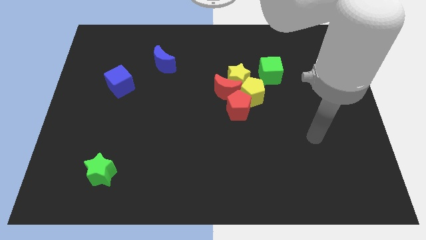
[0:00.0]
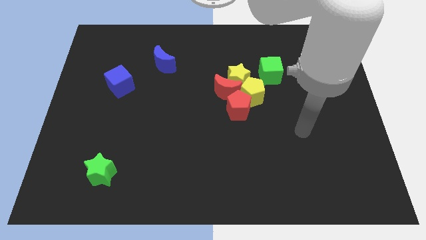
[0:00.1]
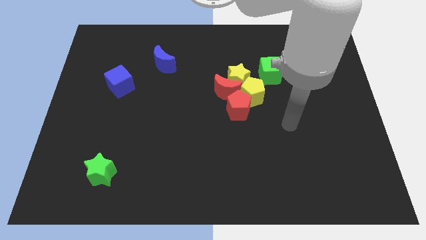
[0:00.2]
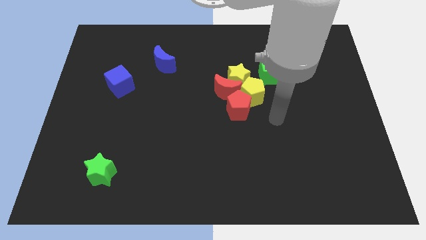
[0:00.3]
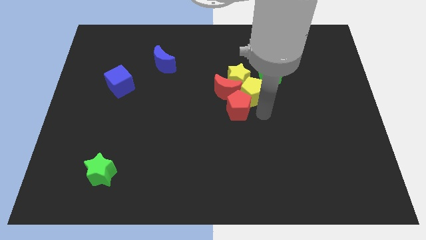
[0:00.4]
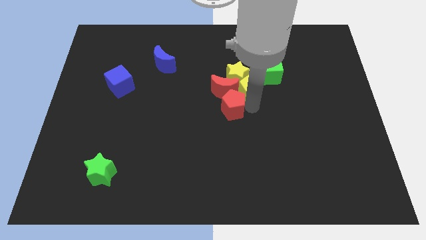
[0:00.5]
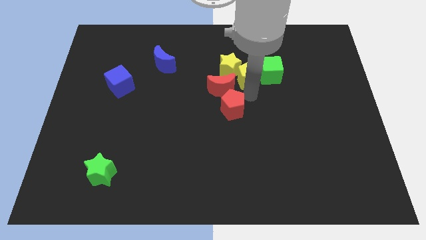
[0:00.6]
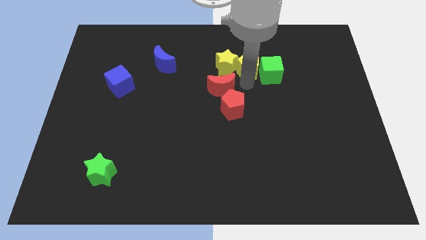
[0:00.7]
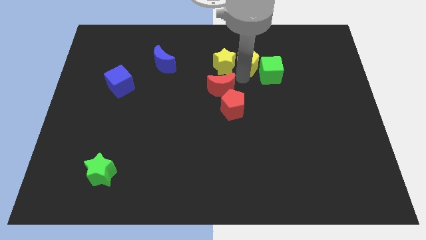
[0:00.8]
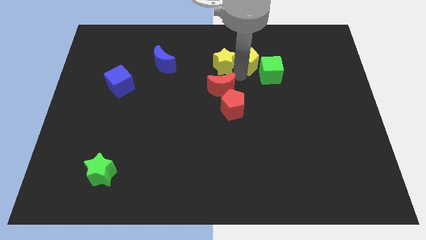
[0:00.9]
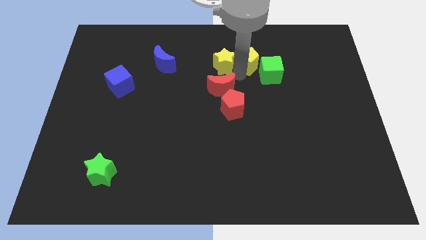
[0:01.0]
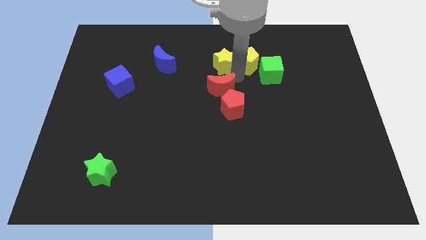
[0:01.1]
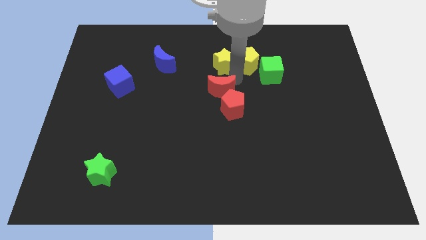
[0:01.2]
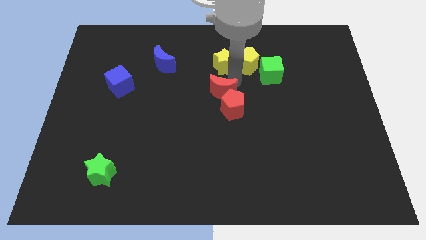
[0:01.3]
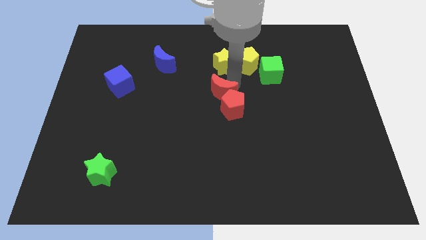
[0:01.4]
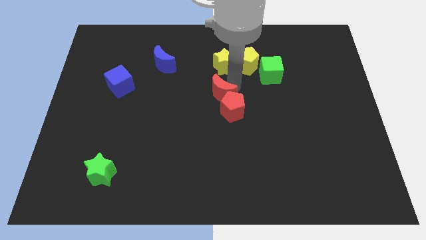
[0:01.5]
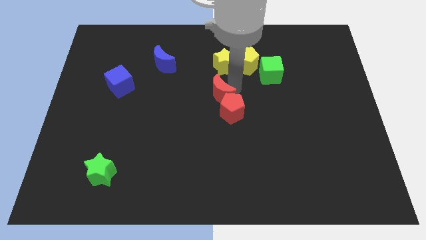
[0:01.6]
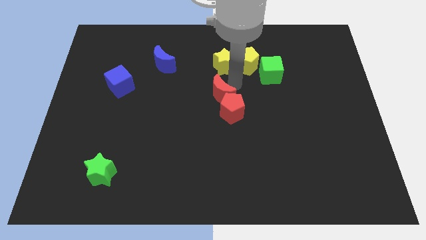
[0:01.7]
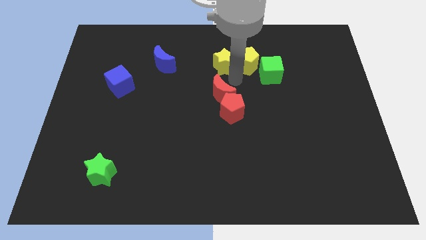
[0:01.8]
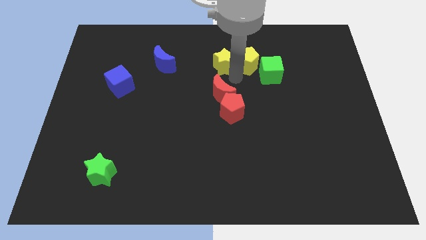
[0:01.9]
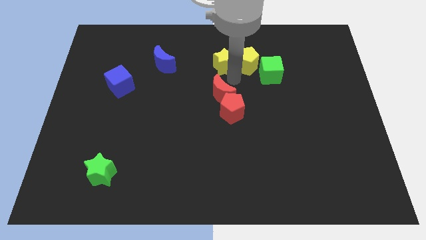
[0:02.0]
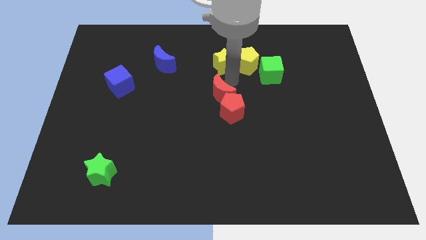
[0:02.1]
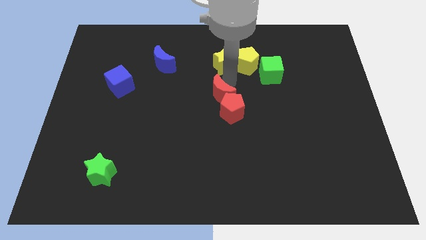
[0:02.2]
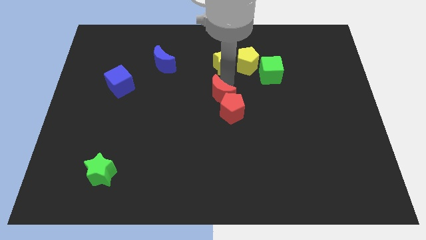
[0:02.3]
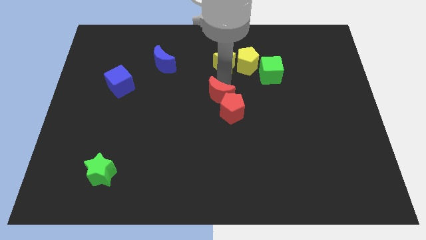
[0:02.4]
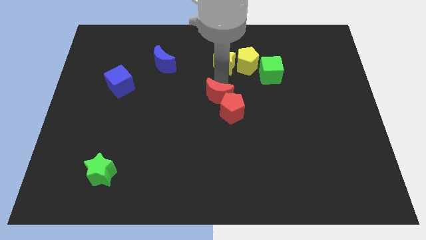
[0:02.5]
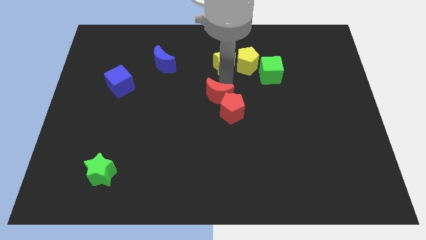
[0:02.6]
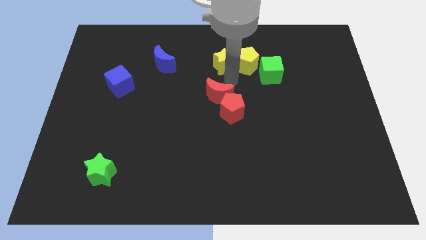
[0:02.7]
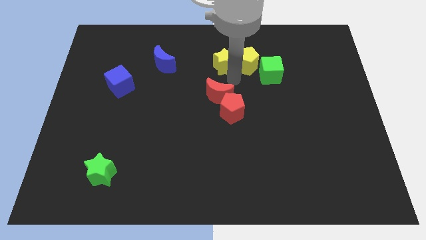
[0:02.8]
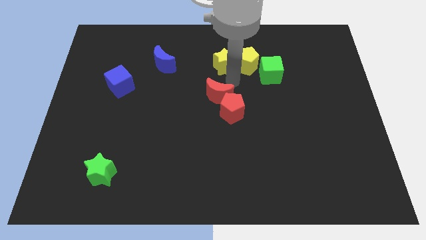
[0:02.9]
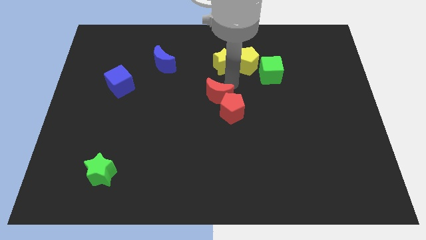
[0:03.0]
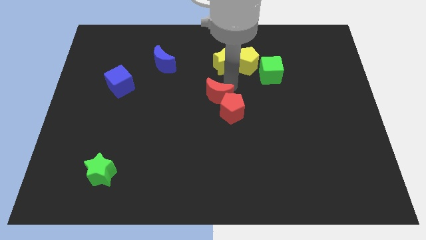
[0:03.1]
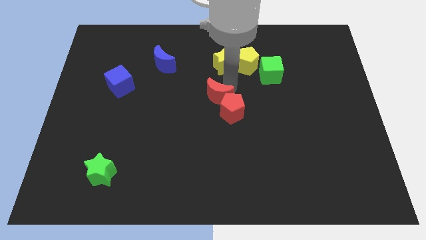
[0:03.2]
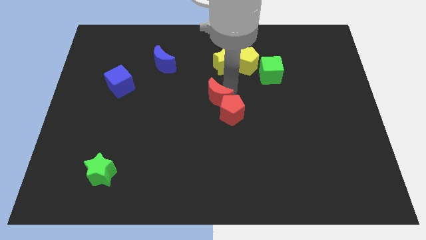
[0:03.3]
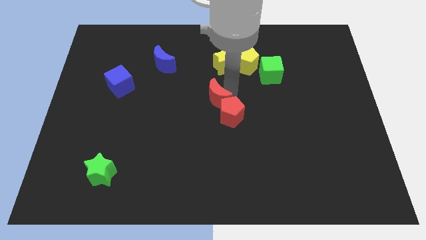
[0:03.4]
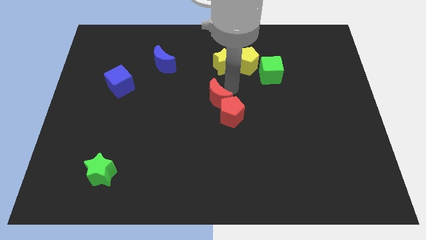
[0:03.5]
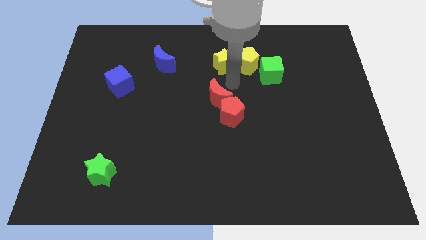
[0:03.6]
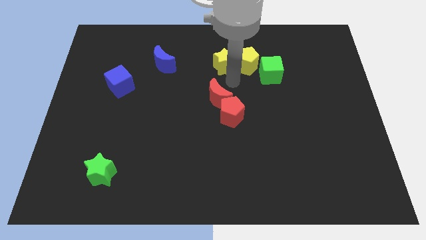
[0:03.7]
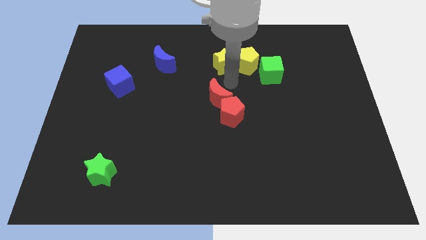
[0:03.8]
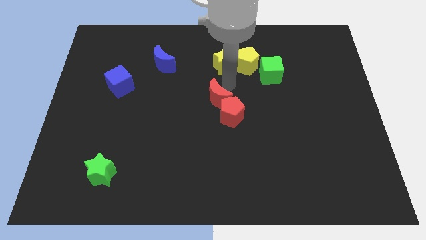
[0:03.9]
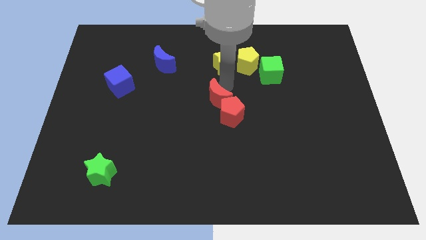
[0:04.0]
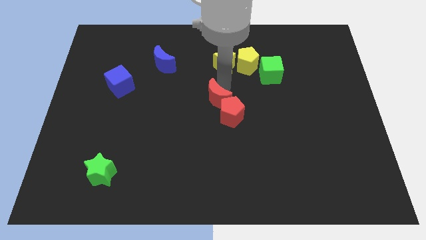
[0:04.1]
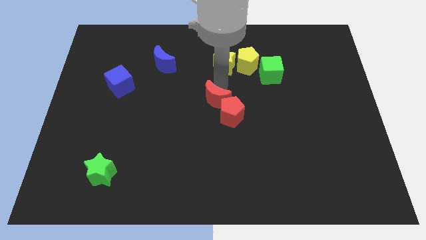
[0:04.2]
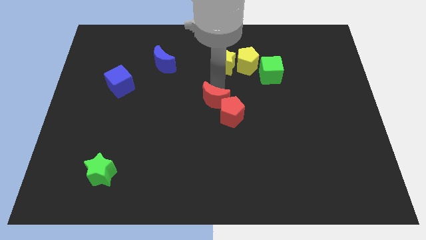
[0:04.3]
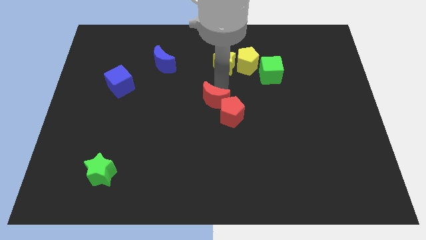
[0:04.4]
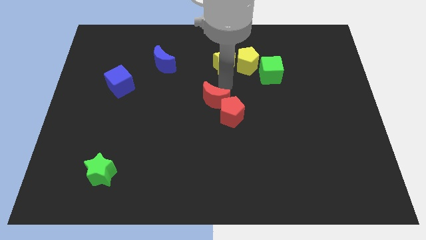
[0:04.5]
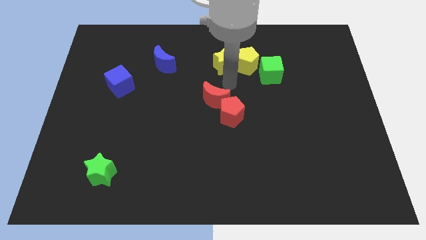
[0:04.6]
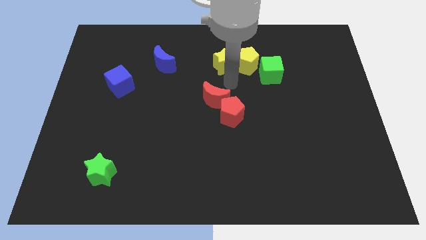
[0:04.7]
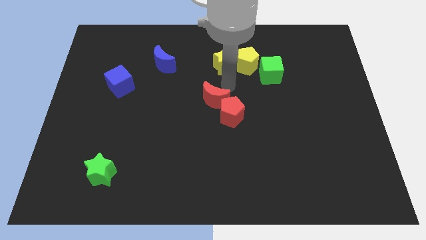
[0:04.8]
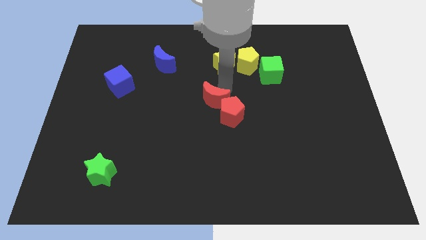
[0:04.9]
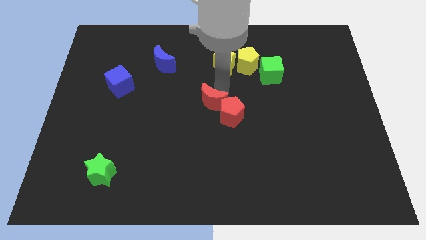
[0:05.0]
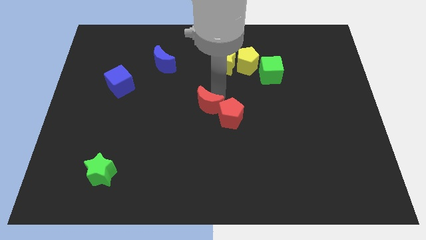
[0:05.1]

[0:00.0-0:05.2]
move the red moon away from the yellow star, red pentagon, and yellow pentagon

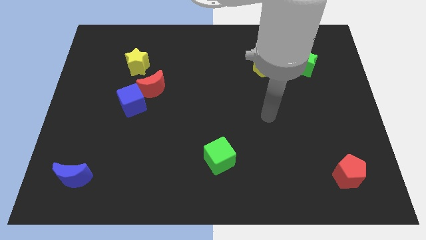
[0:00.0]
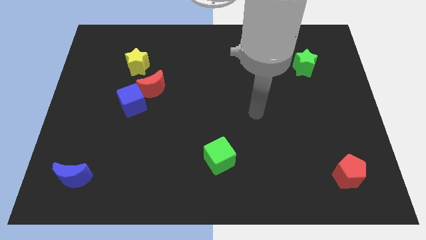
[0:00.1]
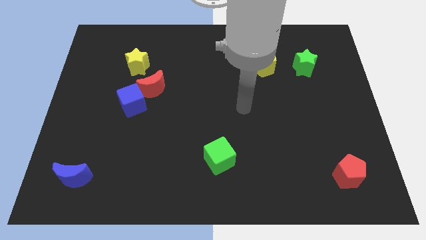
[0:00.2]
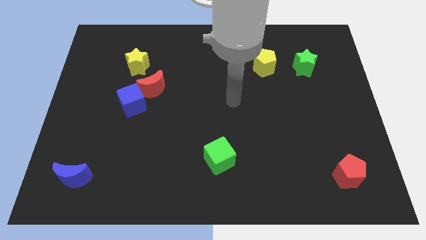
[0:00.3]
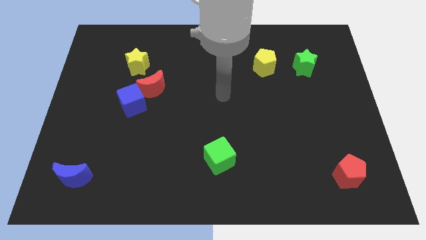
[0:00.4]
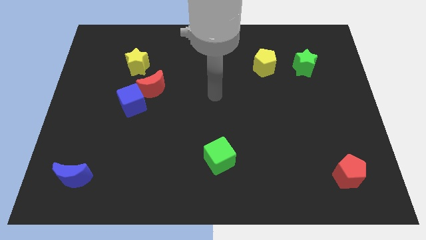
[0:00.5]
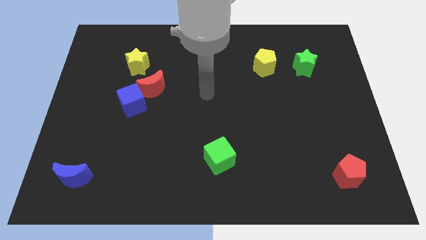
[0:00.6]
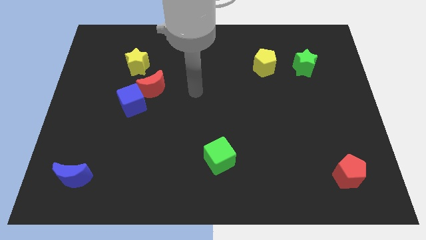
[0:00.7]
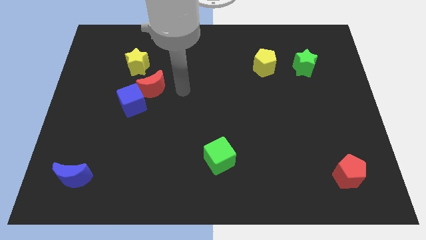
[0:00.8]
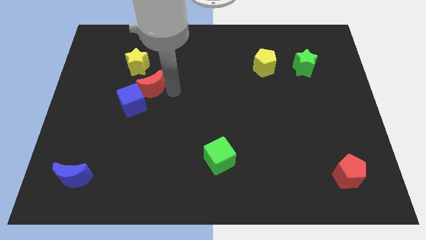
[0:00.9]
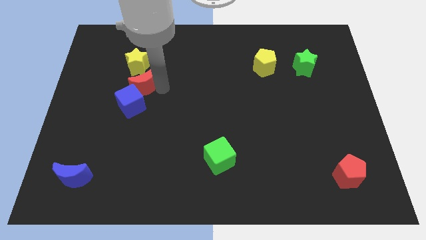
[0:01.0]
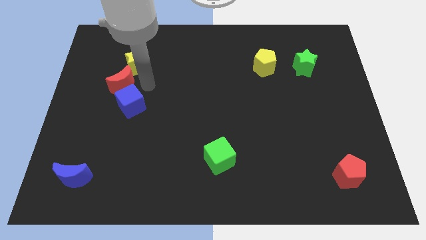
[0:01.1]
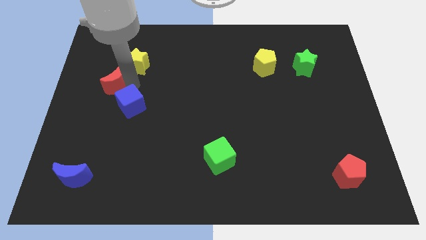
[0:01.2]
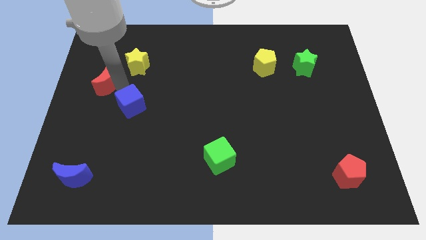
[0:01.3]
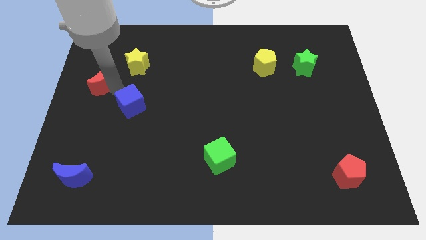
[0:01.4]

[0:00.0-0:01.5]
pull the blue cube apart from the red moon

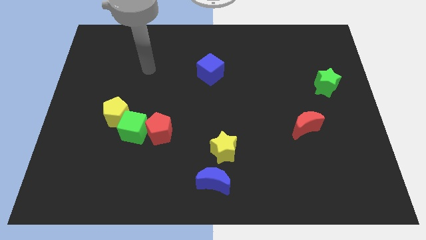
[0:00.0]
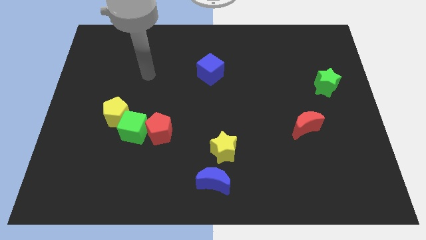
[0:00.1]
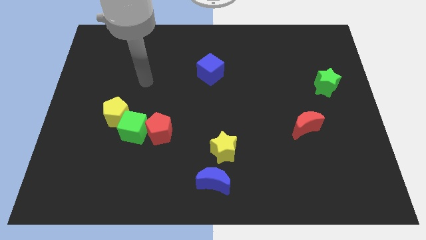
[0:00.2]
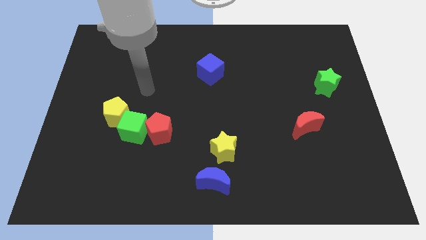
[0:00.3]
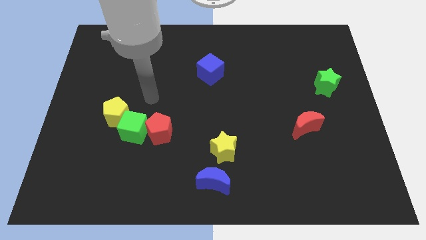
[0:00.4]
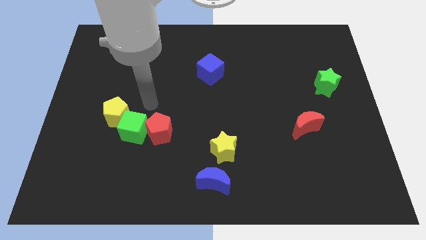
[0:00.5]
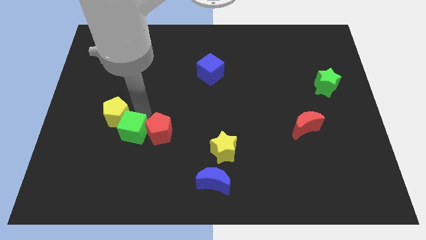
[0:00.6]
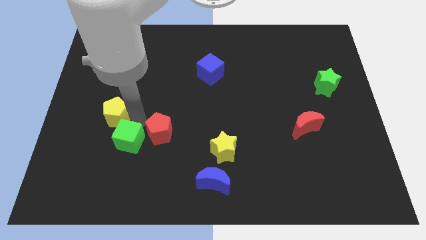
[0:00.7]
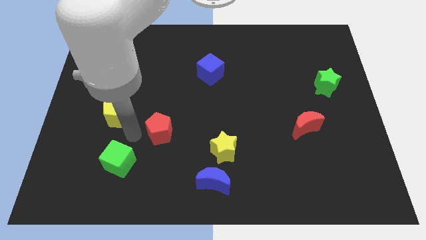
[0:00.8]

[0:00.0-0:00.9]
pull the red pentagon apart from the green cube

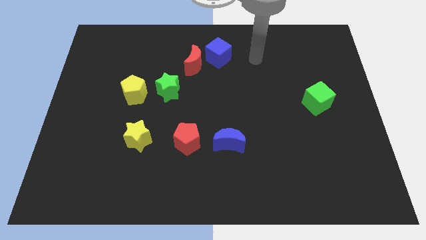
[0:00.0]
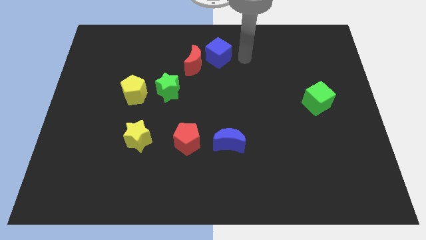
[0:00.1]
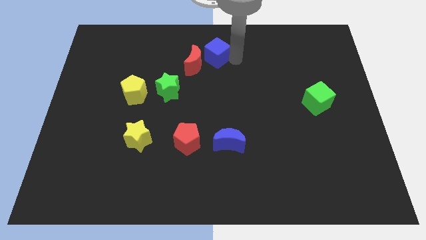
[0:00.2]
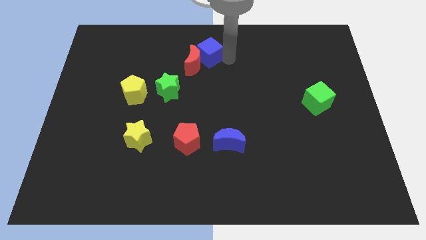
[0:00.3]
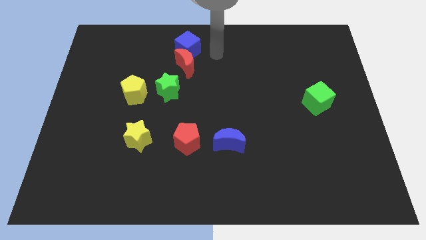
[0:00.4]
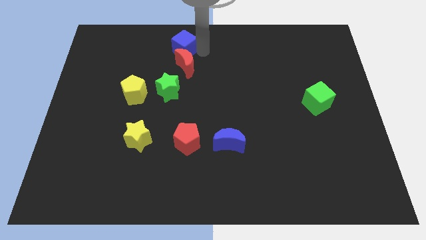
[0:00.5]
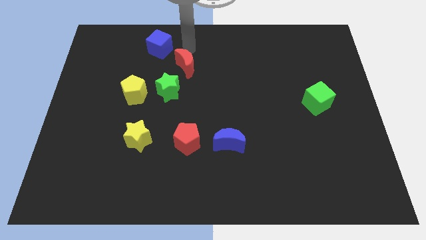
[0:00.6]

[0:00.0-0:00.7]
move the red moon away from the blue cube

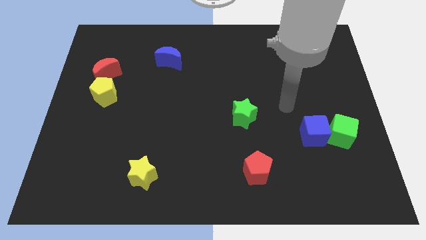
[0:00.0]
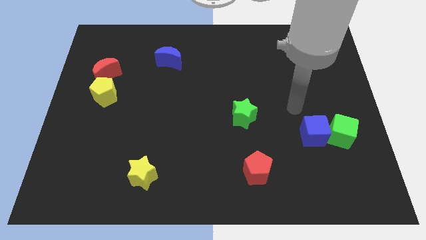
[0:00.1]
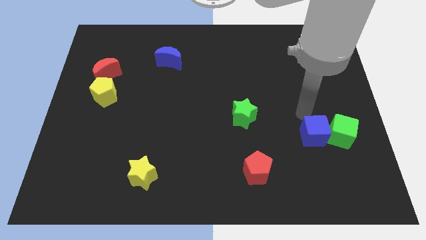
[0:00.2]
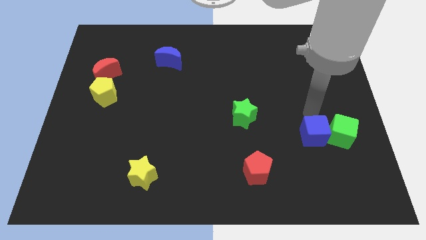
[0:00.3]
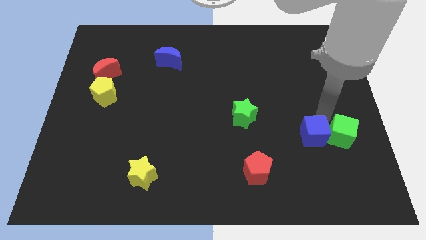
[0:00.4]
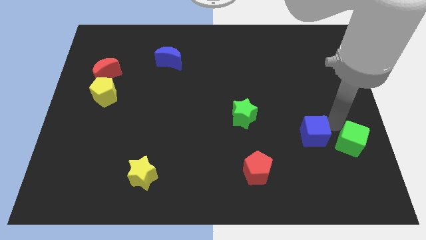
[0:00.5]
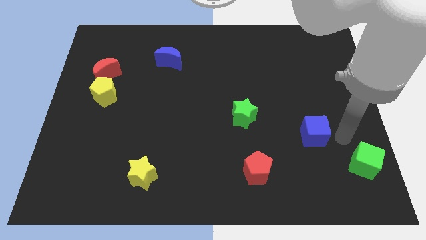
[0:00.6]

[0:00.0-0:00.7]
move the blue cube away from the green cube
